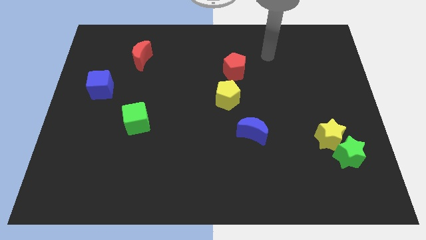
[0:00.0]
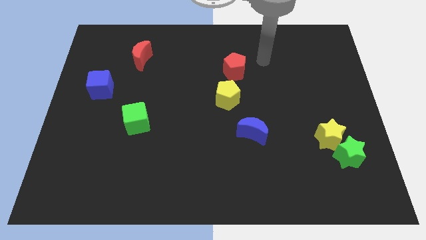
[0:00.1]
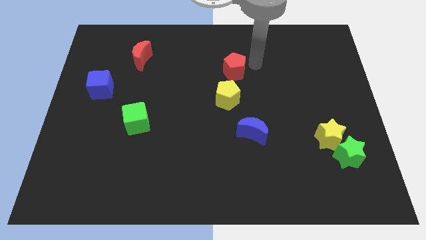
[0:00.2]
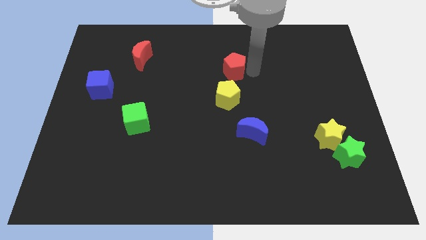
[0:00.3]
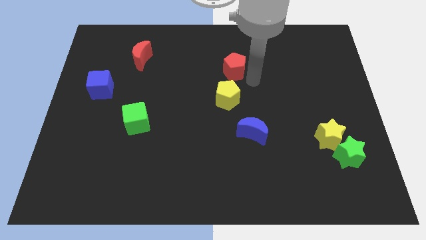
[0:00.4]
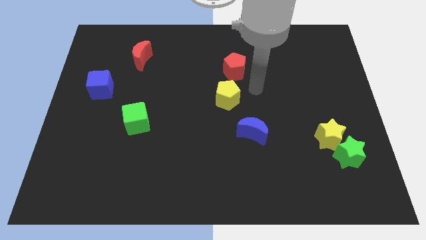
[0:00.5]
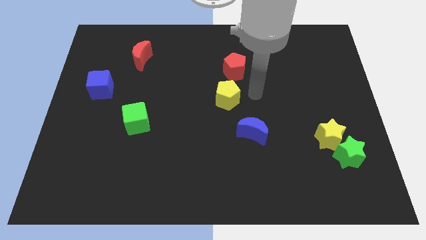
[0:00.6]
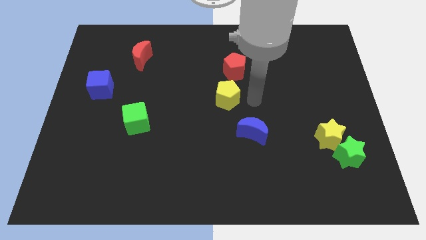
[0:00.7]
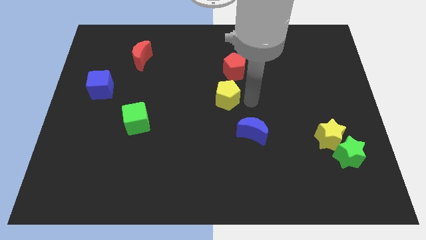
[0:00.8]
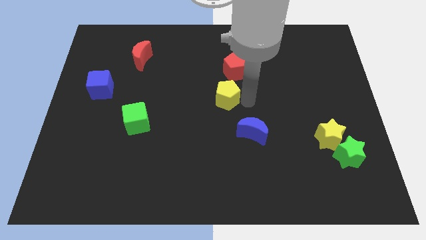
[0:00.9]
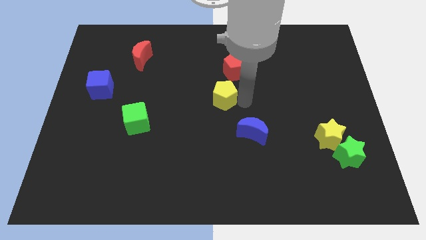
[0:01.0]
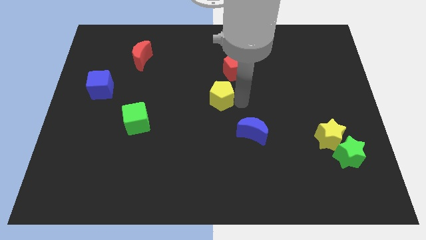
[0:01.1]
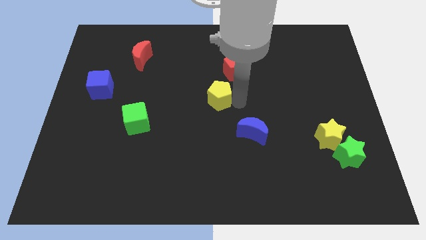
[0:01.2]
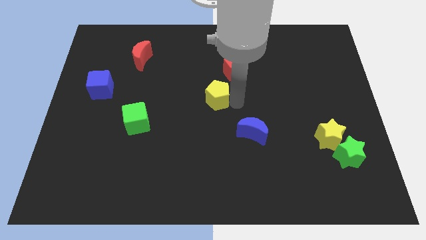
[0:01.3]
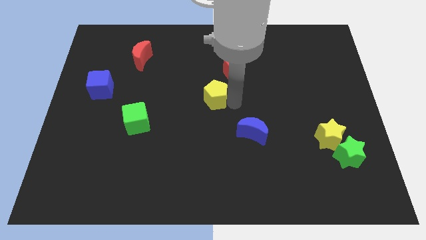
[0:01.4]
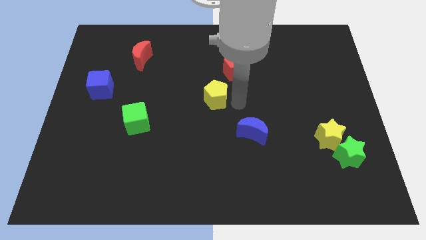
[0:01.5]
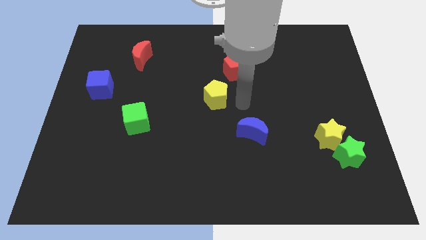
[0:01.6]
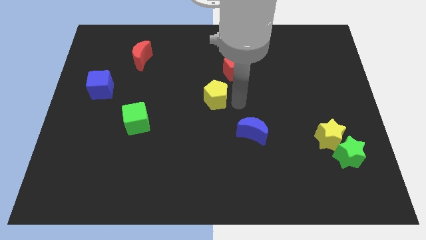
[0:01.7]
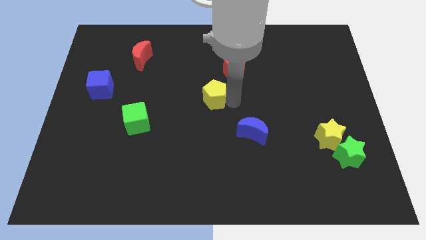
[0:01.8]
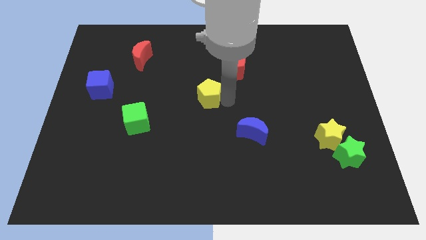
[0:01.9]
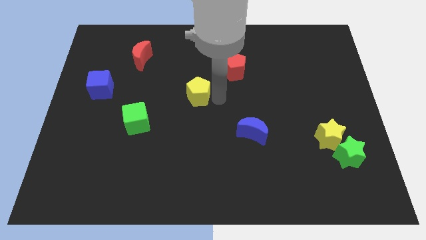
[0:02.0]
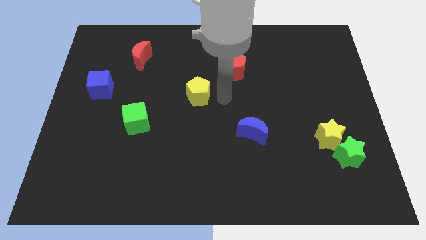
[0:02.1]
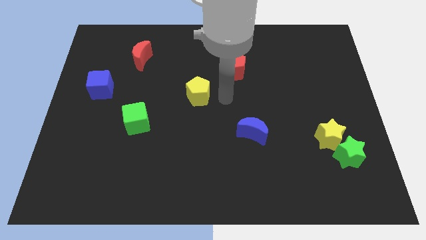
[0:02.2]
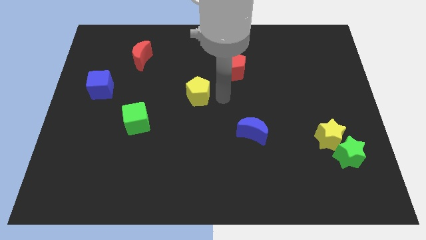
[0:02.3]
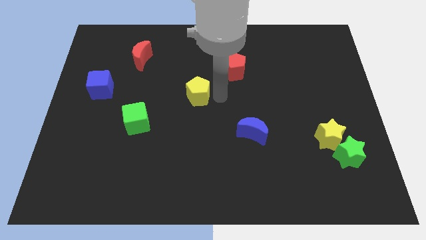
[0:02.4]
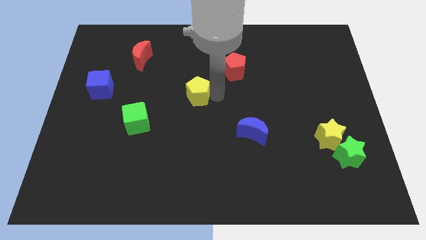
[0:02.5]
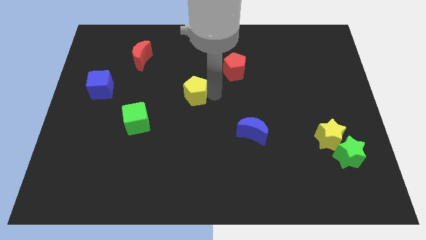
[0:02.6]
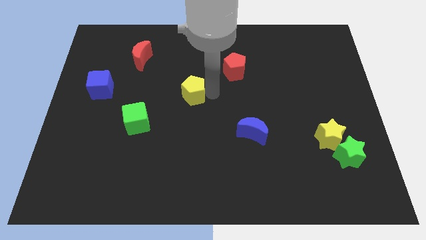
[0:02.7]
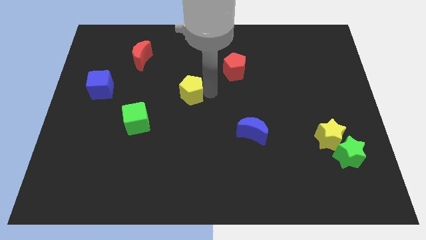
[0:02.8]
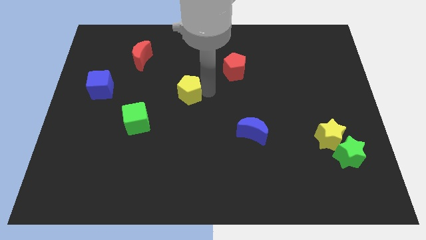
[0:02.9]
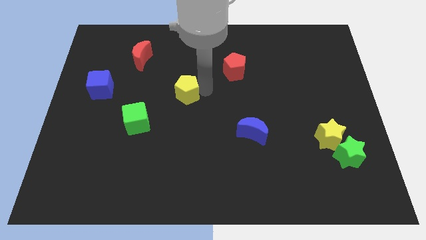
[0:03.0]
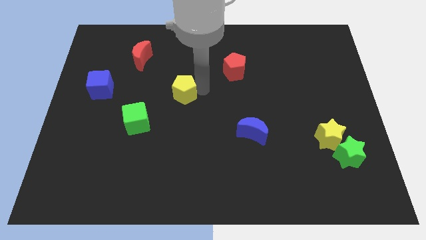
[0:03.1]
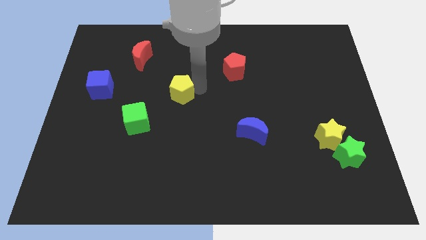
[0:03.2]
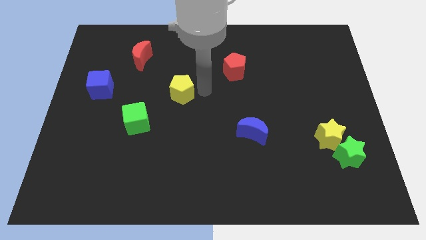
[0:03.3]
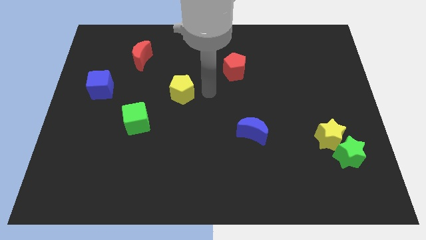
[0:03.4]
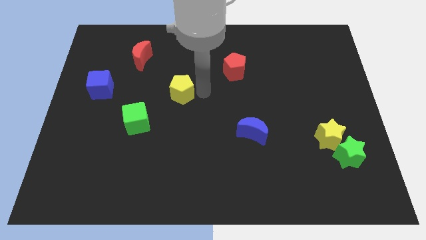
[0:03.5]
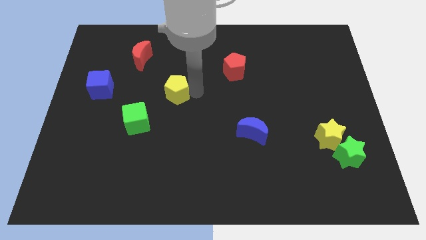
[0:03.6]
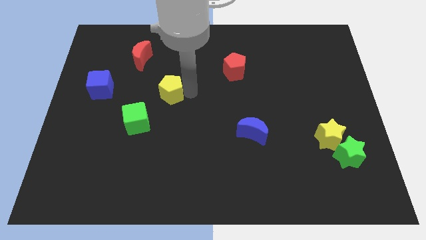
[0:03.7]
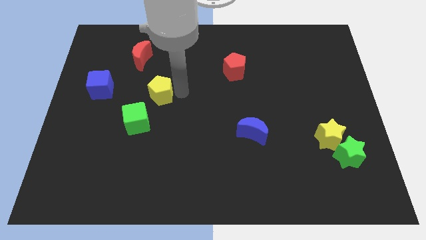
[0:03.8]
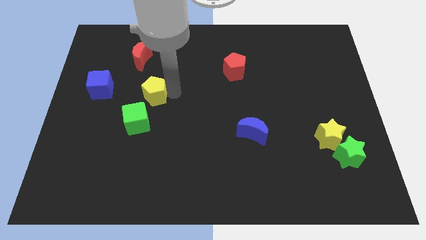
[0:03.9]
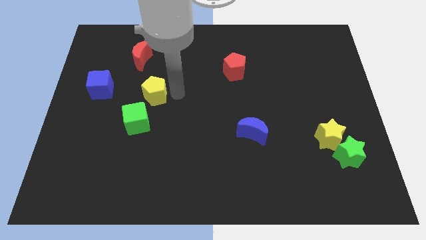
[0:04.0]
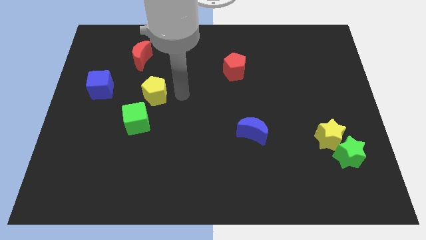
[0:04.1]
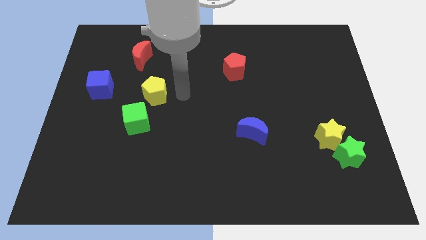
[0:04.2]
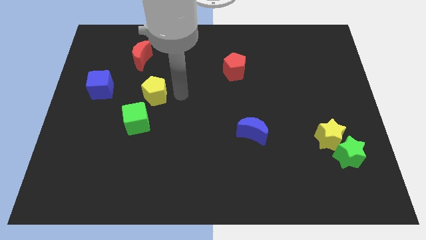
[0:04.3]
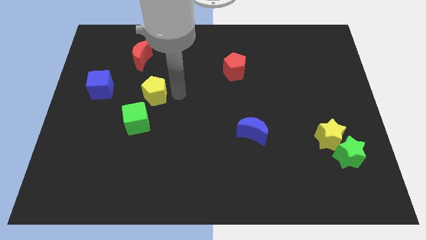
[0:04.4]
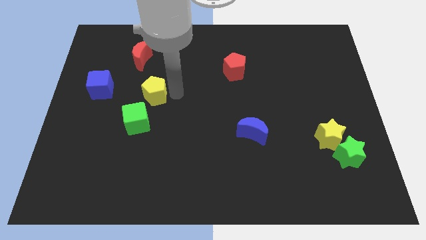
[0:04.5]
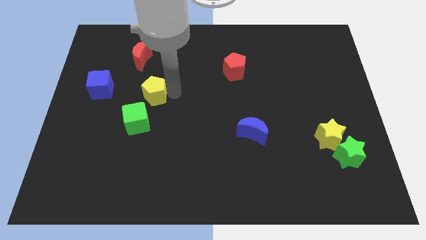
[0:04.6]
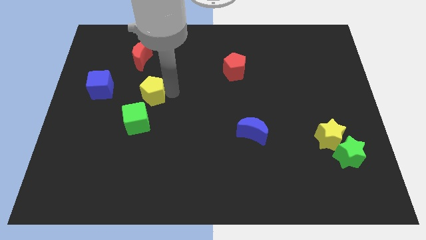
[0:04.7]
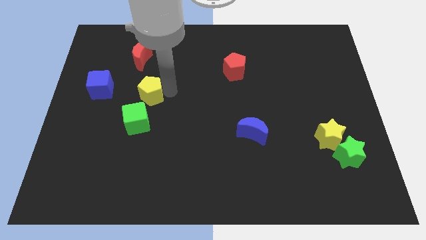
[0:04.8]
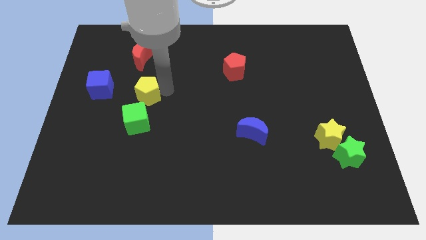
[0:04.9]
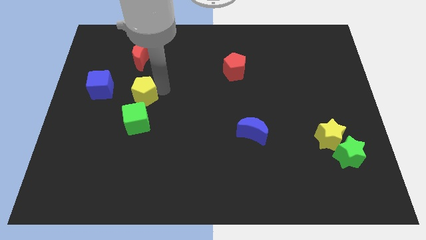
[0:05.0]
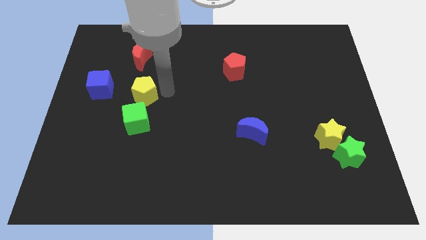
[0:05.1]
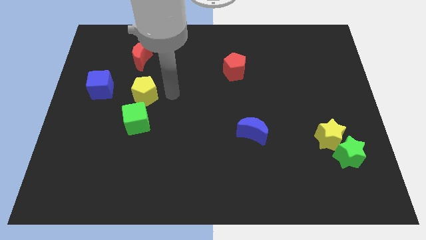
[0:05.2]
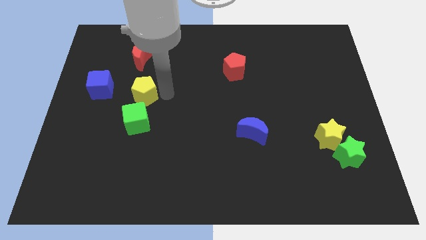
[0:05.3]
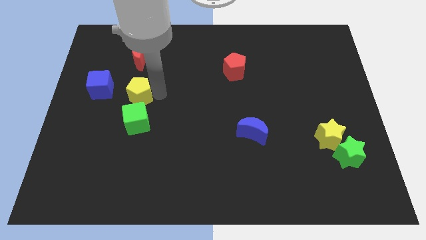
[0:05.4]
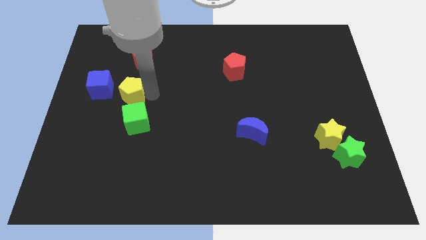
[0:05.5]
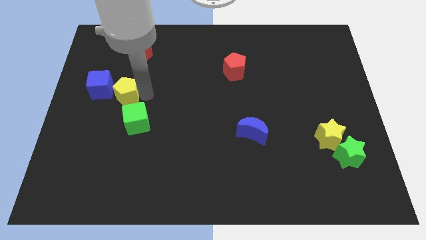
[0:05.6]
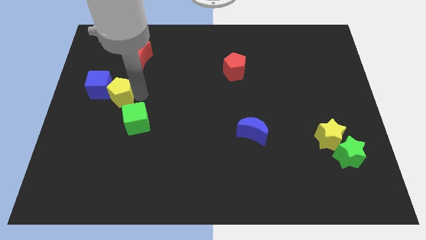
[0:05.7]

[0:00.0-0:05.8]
push the yellow pentagon next to the blue cube

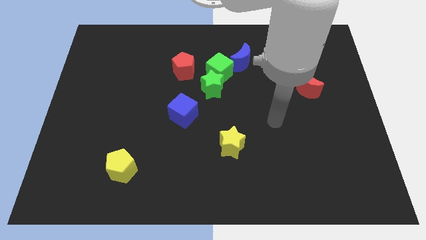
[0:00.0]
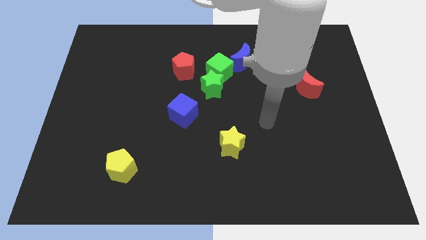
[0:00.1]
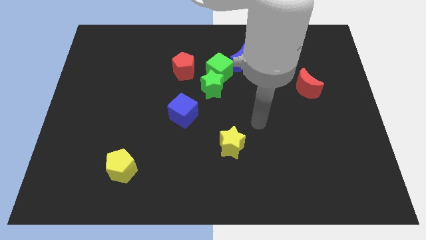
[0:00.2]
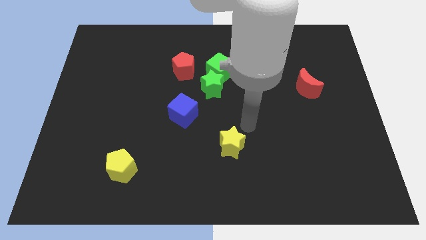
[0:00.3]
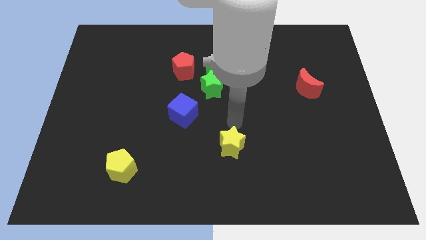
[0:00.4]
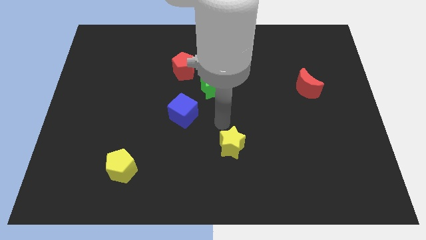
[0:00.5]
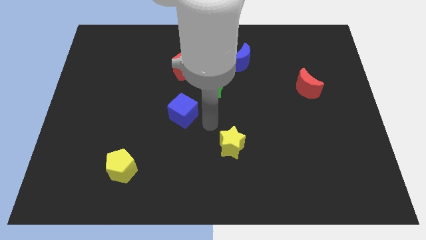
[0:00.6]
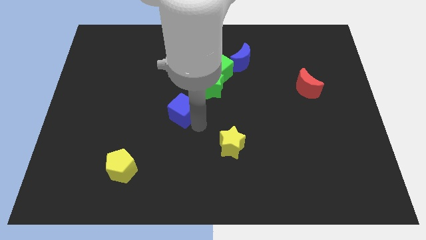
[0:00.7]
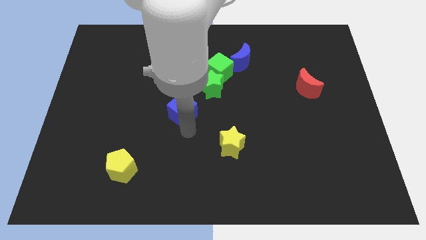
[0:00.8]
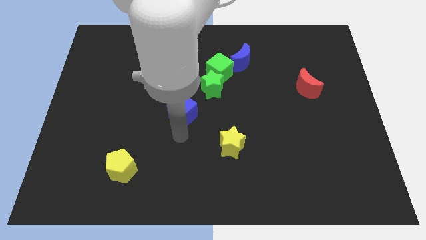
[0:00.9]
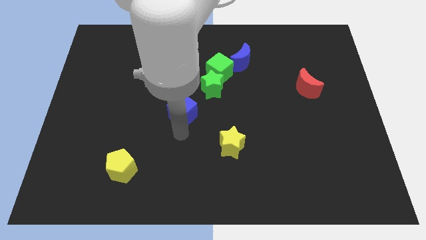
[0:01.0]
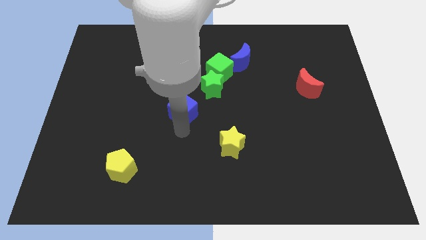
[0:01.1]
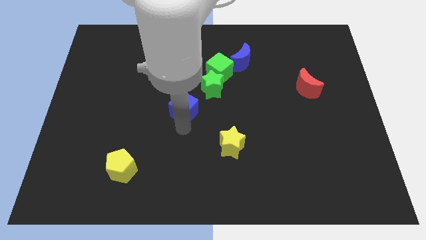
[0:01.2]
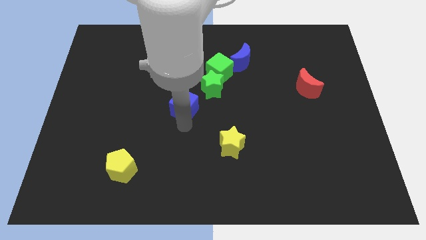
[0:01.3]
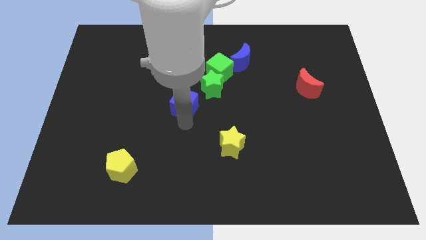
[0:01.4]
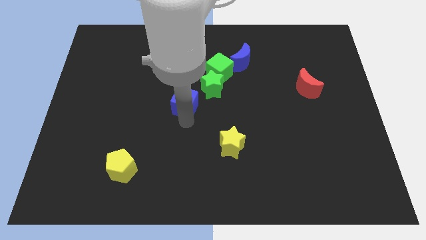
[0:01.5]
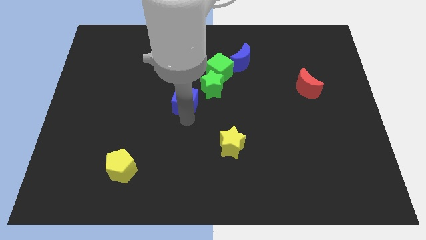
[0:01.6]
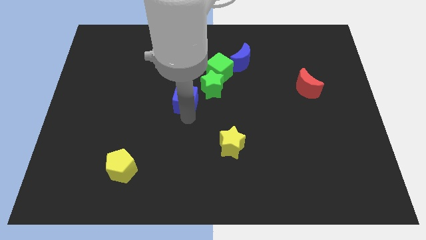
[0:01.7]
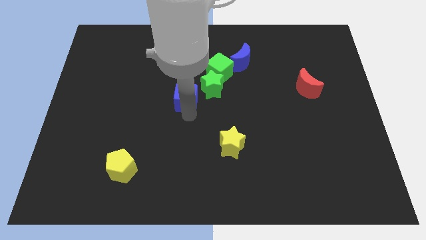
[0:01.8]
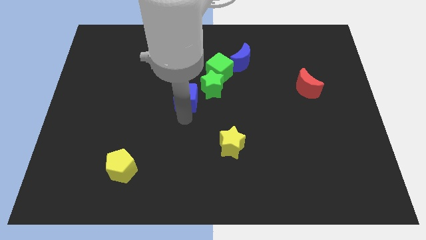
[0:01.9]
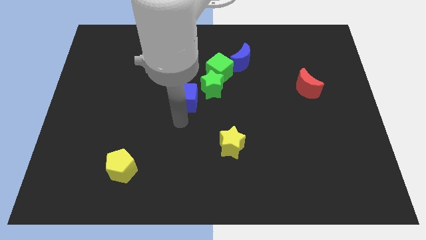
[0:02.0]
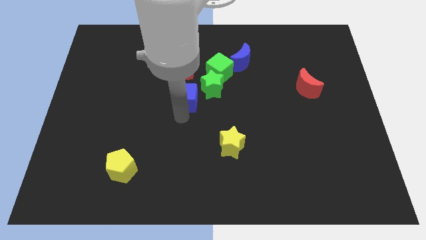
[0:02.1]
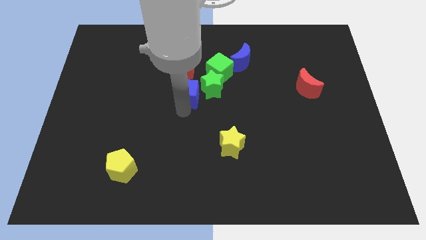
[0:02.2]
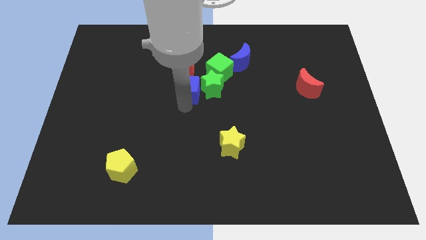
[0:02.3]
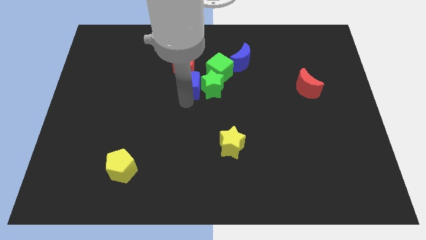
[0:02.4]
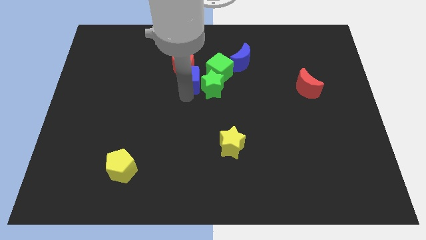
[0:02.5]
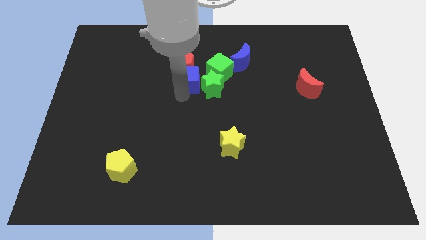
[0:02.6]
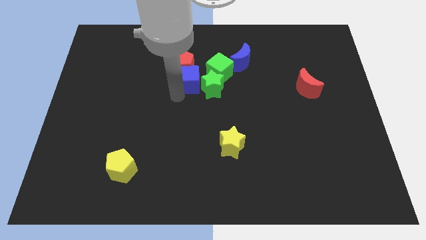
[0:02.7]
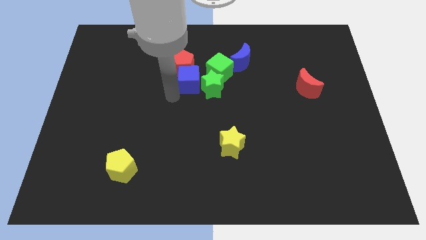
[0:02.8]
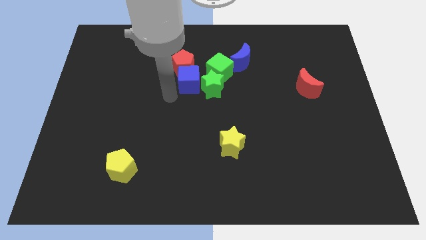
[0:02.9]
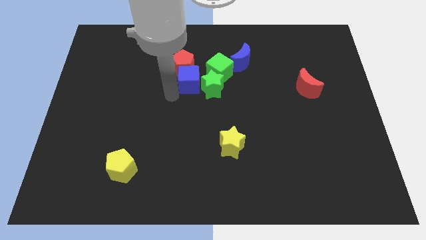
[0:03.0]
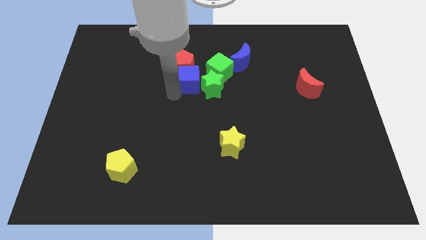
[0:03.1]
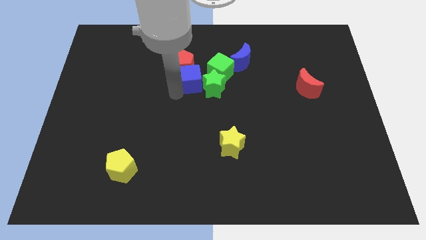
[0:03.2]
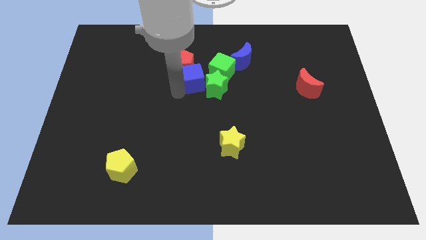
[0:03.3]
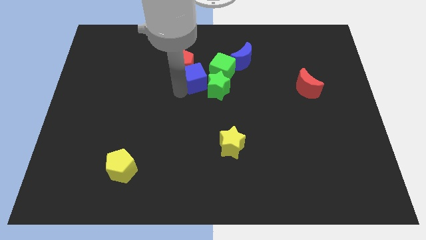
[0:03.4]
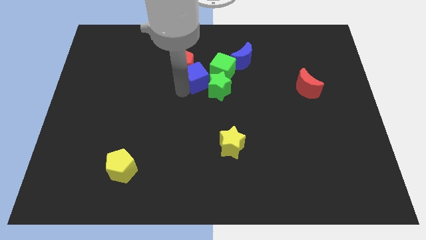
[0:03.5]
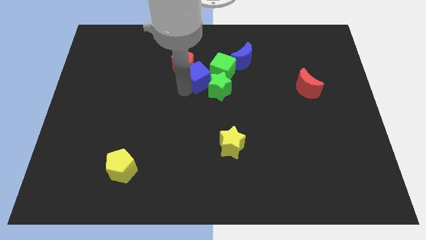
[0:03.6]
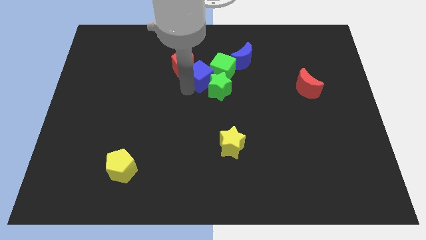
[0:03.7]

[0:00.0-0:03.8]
put the blue cube next to the green cube
